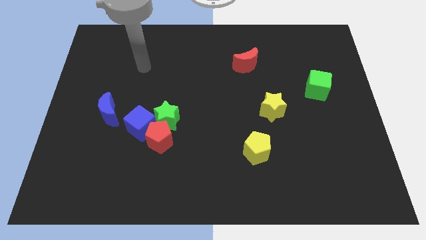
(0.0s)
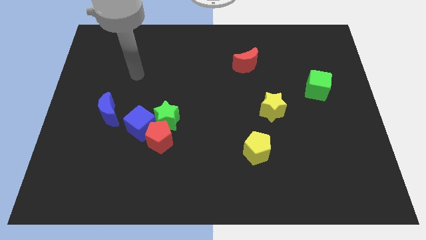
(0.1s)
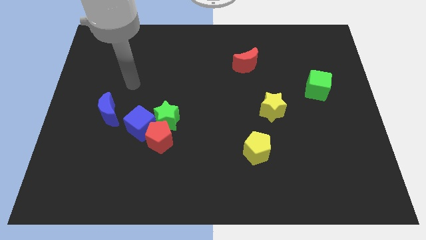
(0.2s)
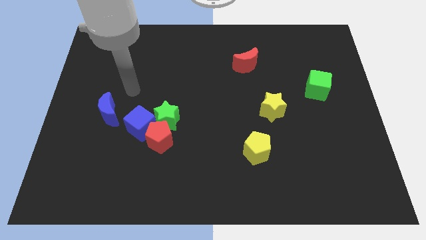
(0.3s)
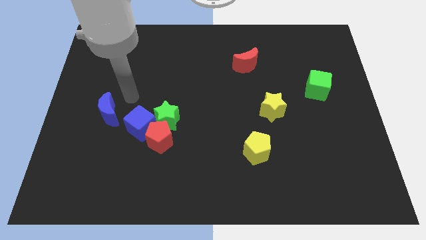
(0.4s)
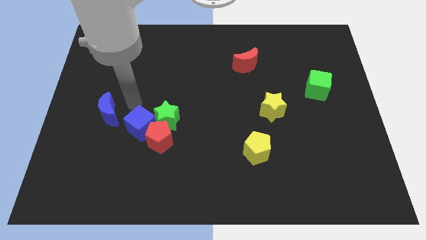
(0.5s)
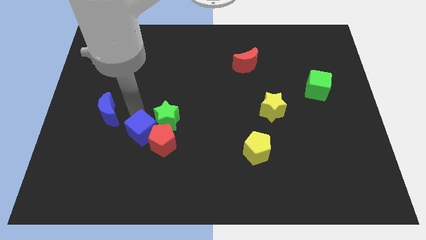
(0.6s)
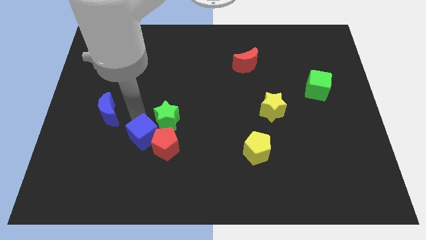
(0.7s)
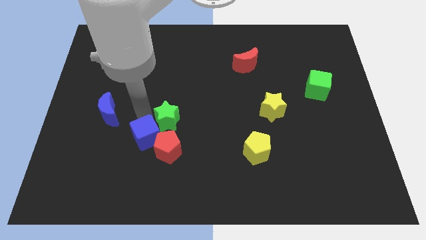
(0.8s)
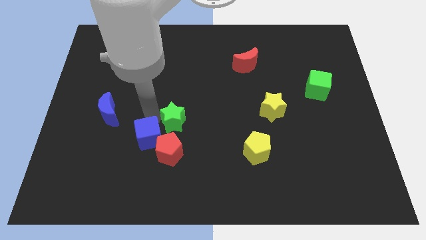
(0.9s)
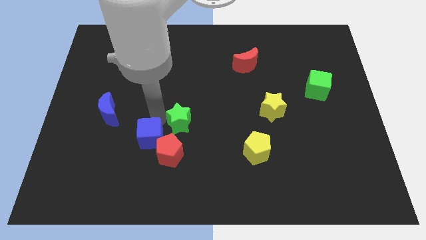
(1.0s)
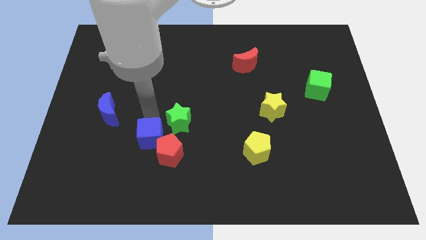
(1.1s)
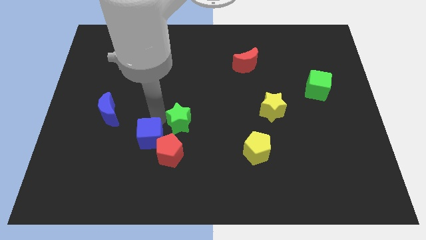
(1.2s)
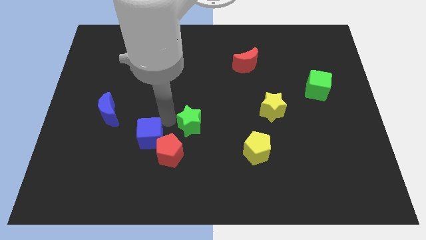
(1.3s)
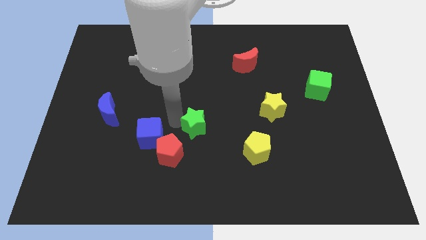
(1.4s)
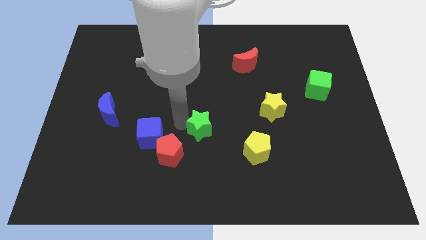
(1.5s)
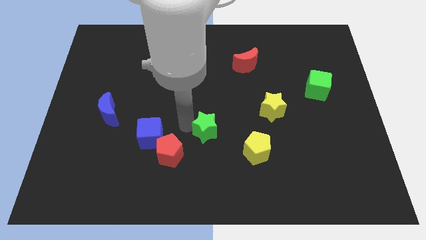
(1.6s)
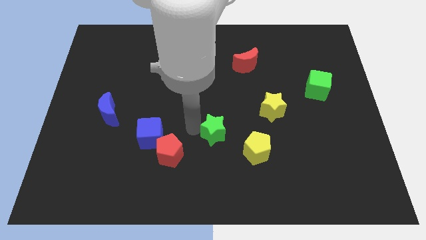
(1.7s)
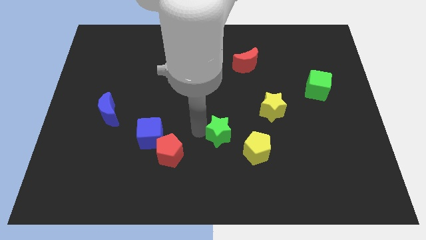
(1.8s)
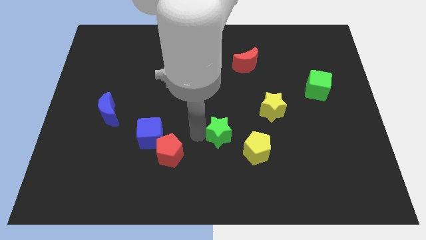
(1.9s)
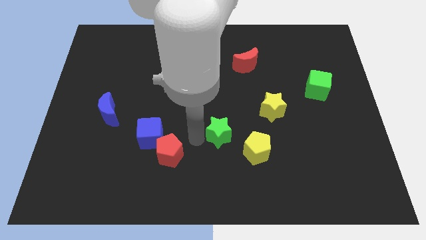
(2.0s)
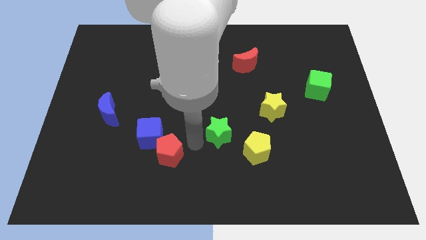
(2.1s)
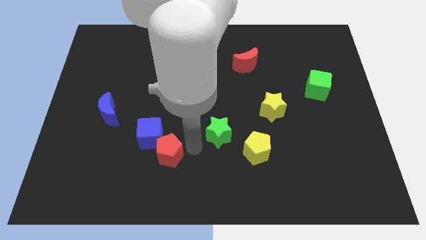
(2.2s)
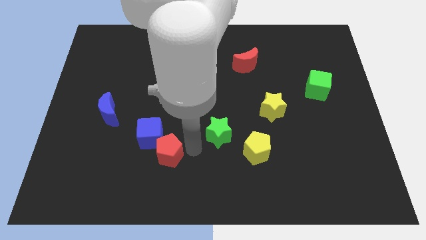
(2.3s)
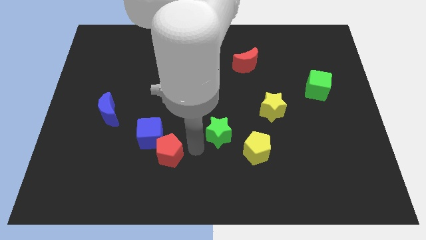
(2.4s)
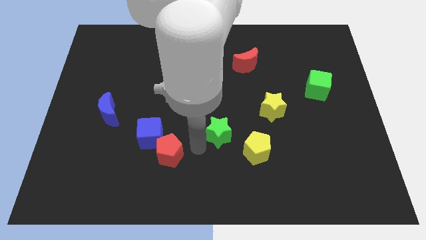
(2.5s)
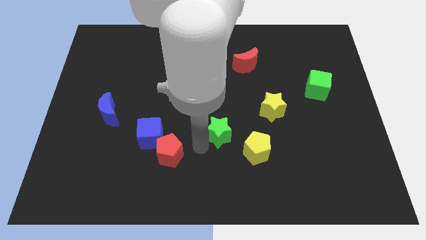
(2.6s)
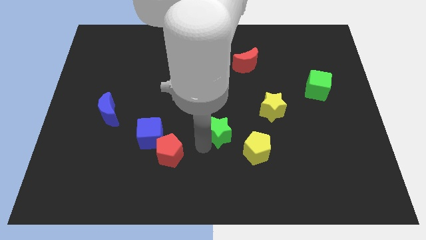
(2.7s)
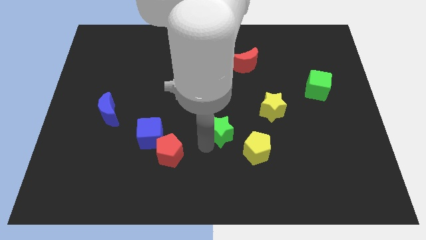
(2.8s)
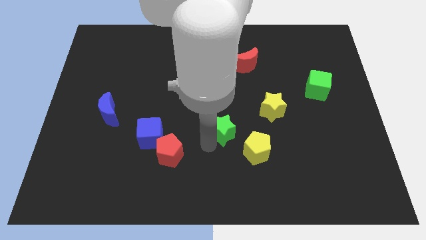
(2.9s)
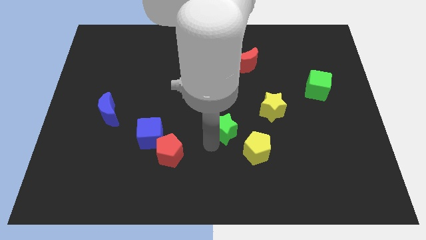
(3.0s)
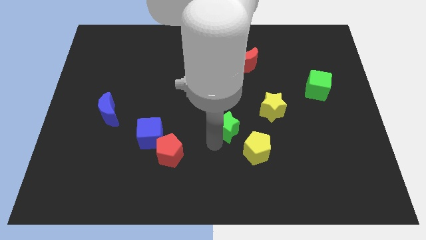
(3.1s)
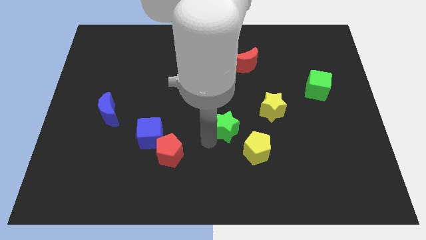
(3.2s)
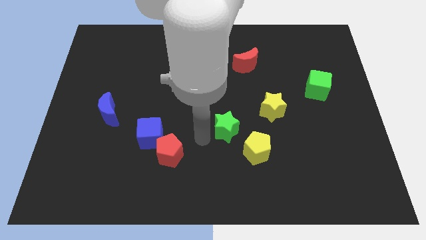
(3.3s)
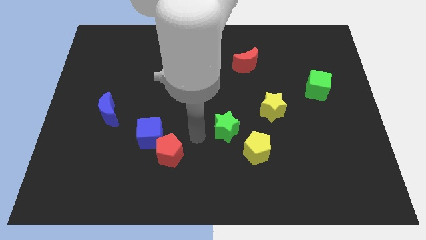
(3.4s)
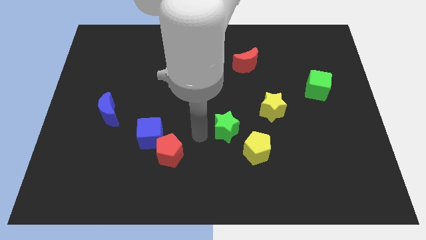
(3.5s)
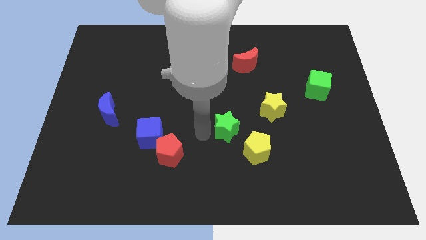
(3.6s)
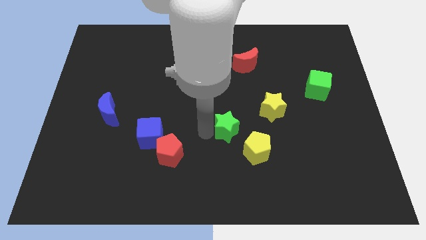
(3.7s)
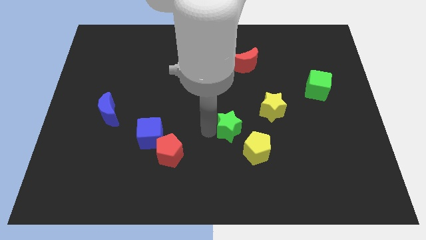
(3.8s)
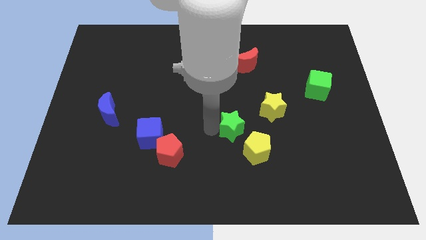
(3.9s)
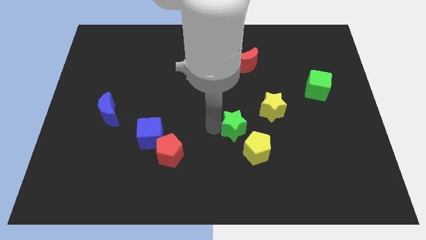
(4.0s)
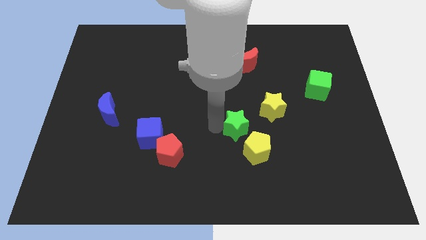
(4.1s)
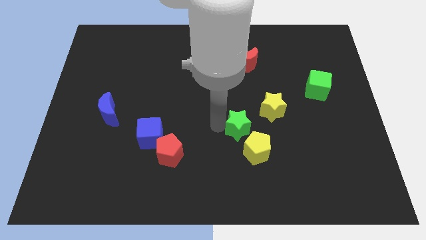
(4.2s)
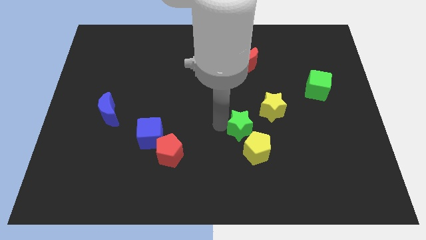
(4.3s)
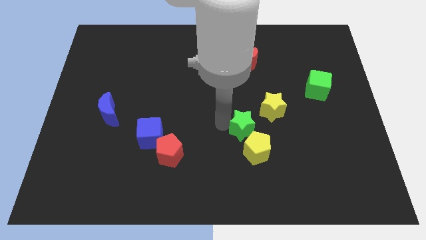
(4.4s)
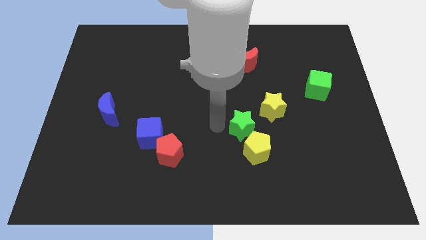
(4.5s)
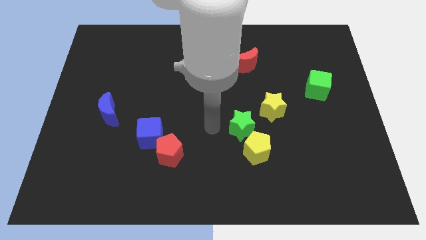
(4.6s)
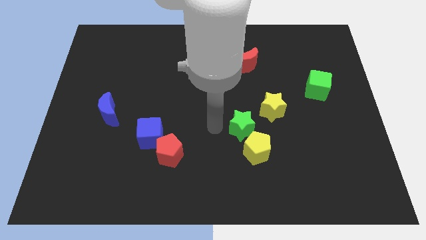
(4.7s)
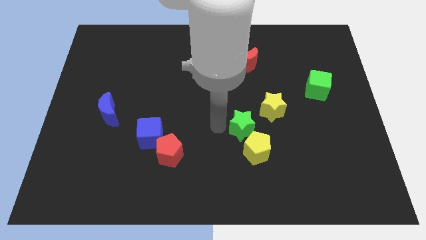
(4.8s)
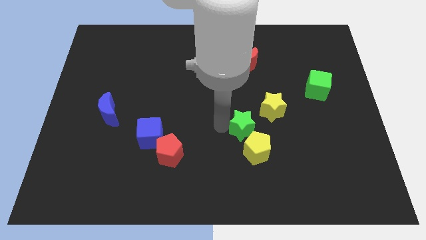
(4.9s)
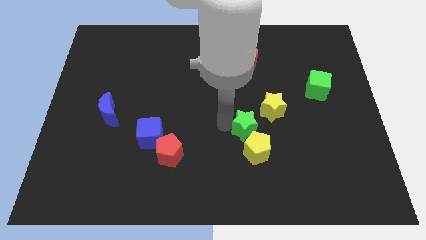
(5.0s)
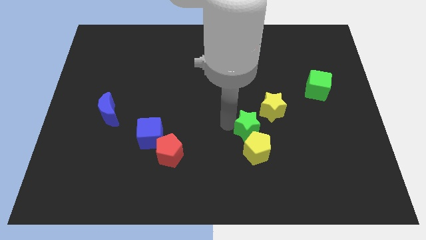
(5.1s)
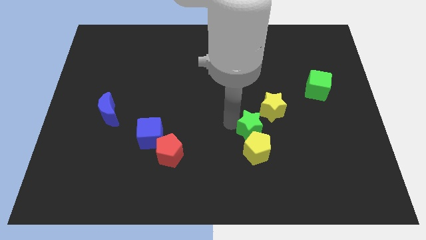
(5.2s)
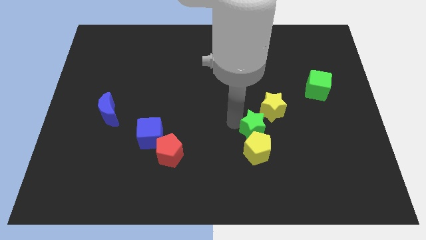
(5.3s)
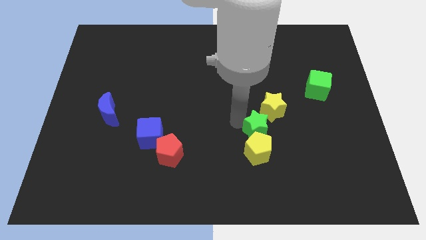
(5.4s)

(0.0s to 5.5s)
move the green star to the right

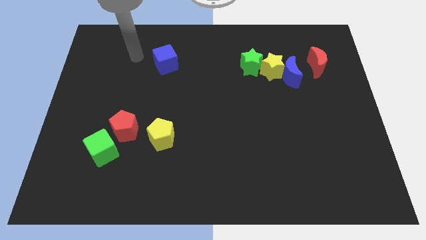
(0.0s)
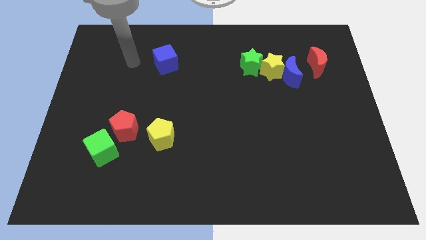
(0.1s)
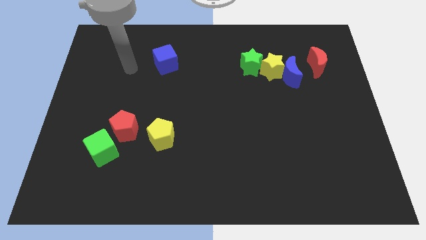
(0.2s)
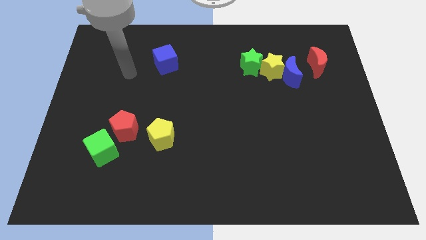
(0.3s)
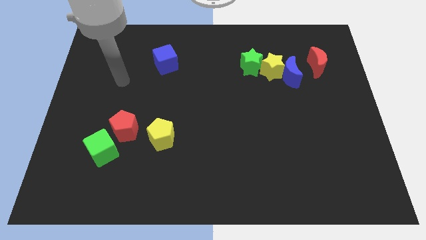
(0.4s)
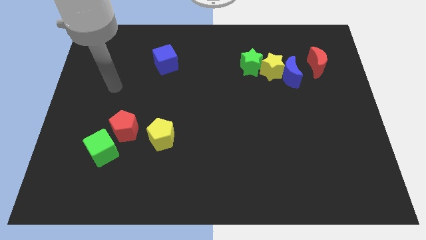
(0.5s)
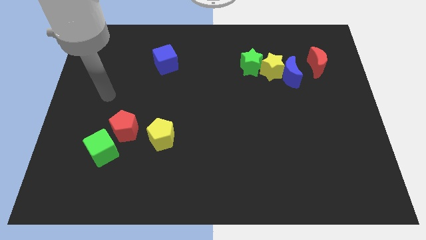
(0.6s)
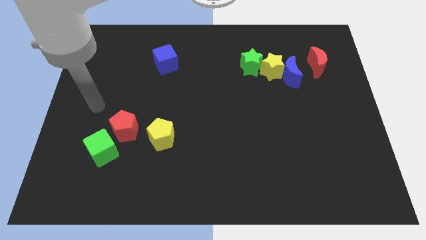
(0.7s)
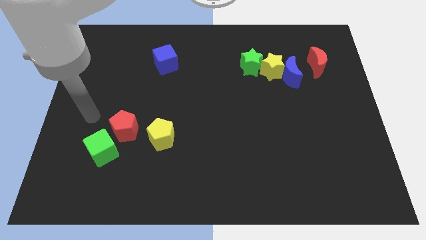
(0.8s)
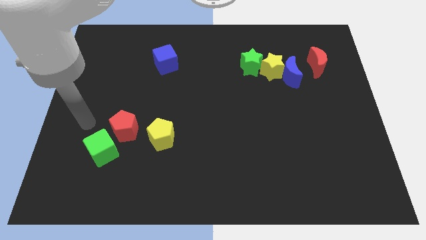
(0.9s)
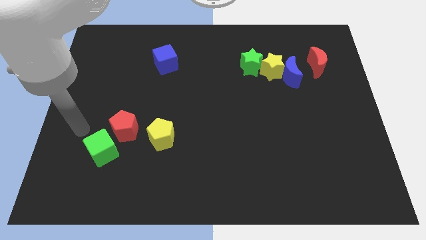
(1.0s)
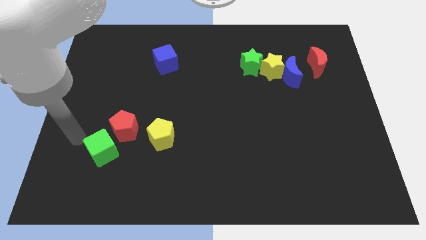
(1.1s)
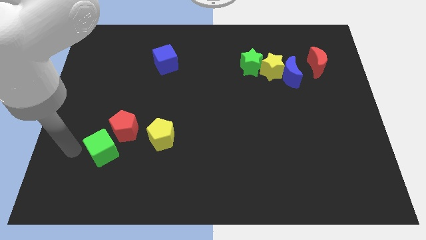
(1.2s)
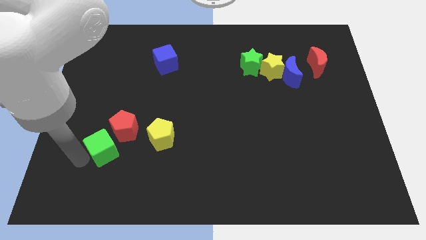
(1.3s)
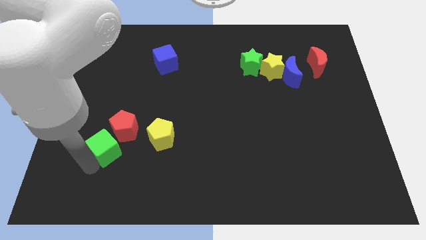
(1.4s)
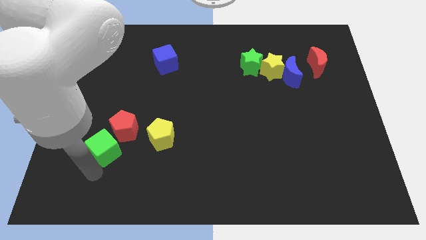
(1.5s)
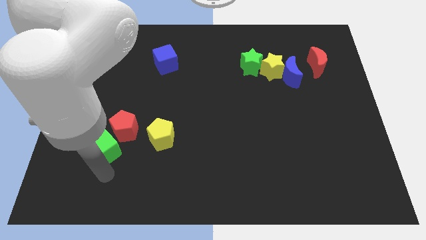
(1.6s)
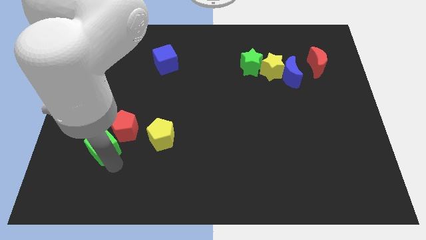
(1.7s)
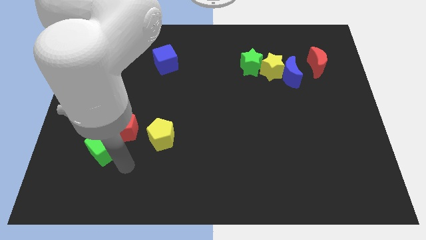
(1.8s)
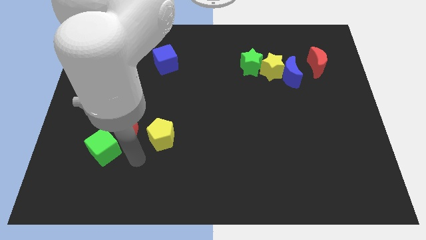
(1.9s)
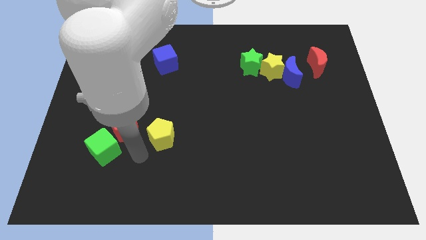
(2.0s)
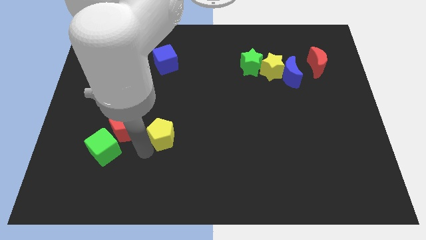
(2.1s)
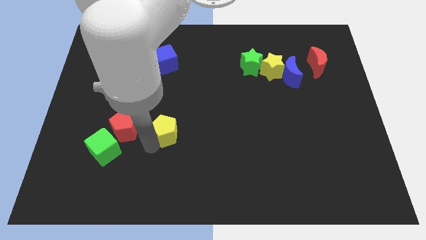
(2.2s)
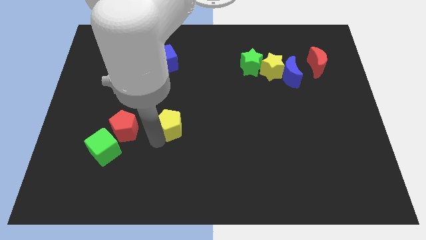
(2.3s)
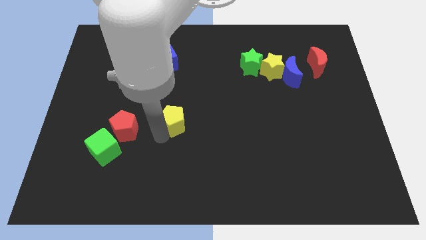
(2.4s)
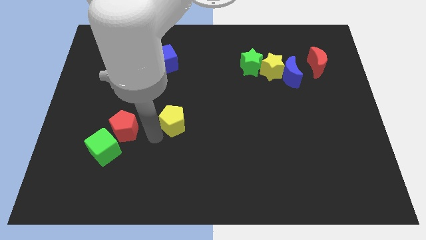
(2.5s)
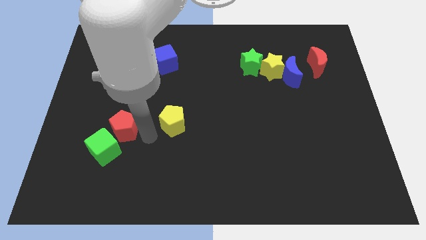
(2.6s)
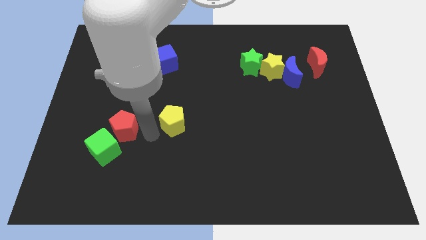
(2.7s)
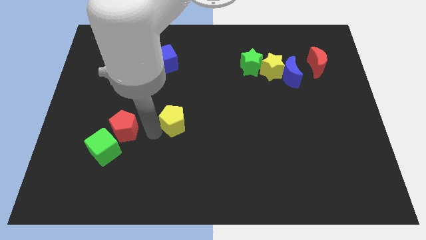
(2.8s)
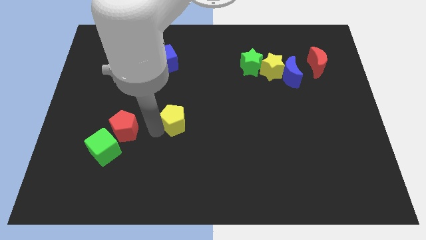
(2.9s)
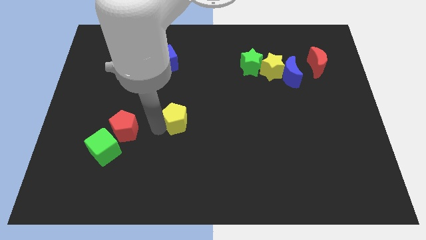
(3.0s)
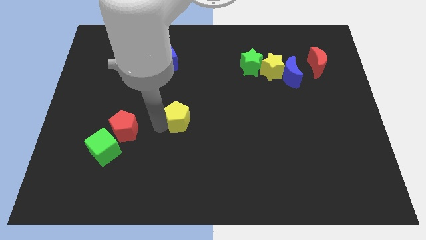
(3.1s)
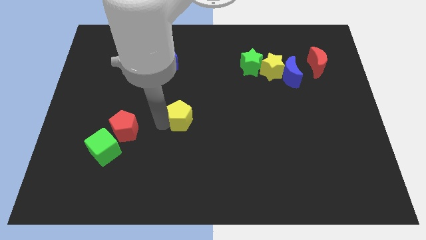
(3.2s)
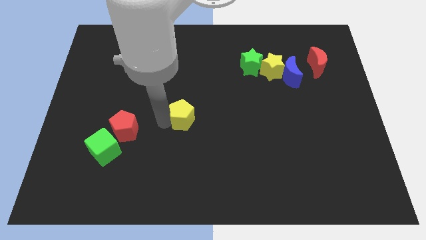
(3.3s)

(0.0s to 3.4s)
move the yellow pentagon a bit up and right
